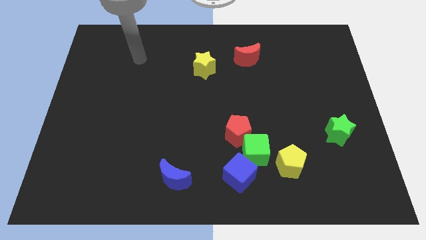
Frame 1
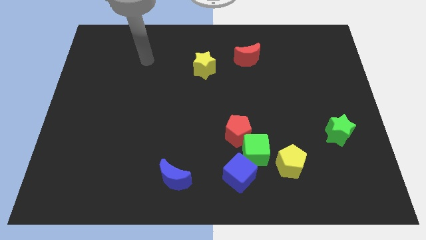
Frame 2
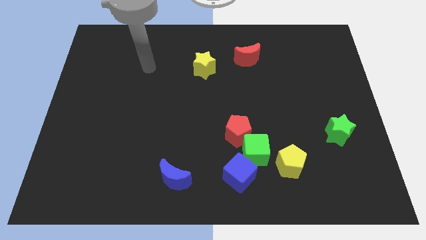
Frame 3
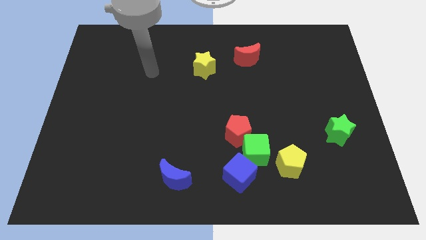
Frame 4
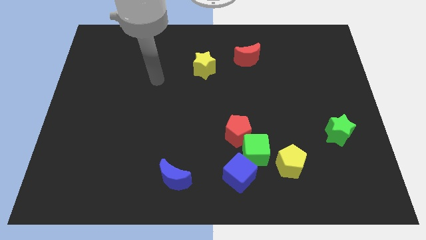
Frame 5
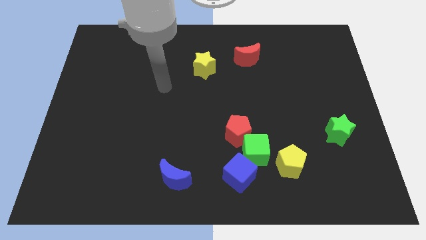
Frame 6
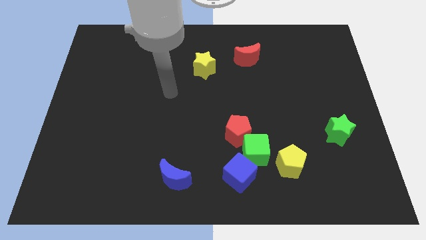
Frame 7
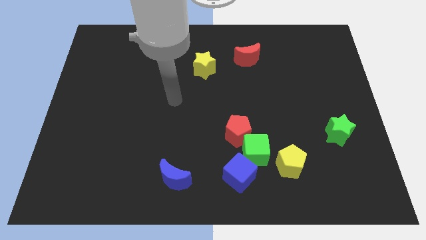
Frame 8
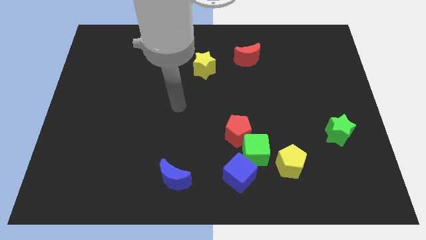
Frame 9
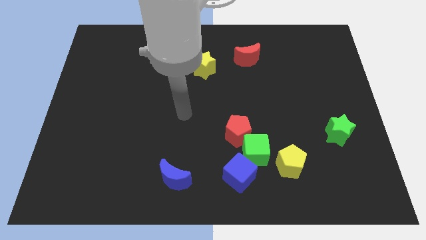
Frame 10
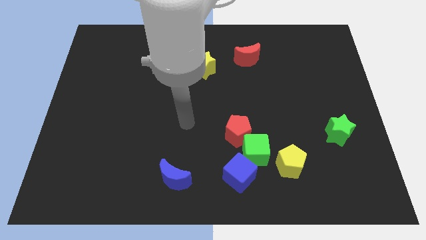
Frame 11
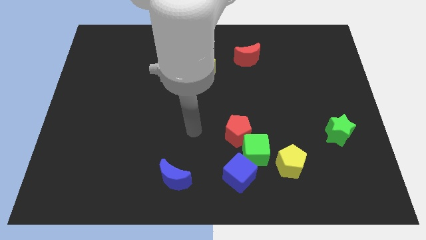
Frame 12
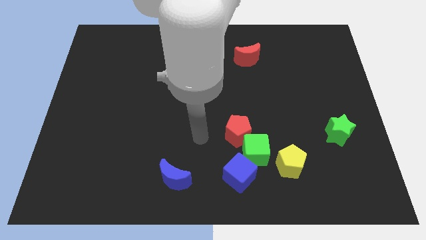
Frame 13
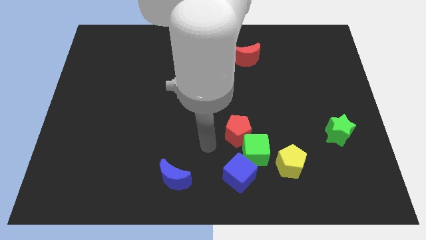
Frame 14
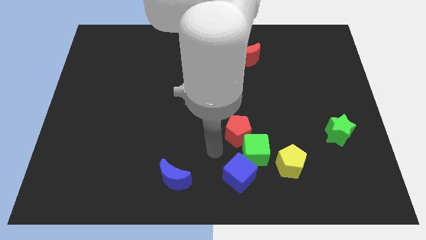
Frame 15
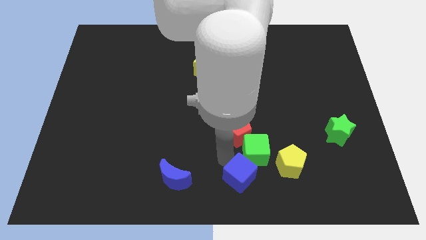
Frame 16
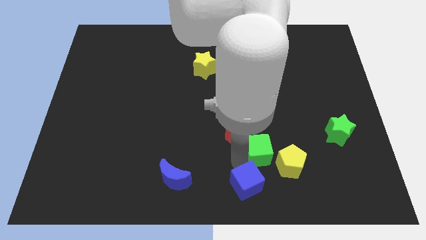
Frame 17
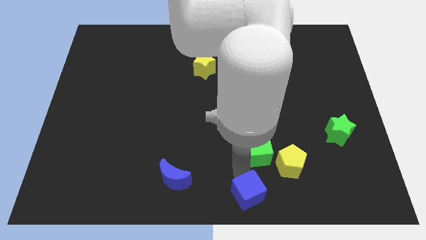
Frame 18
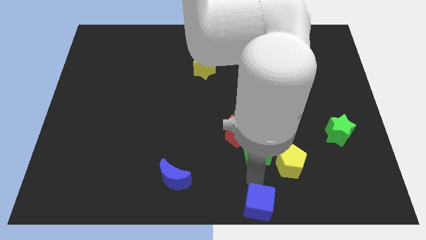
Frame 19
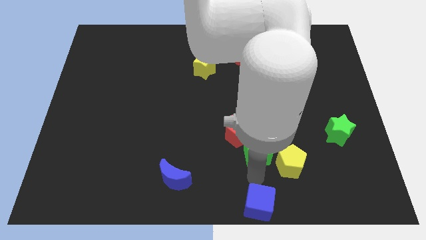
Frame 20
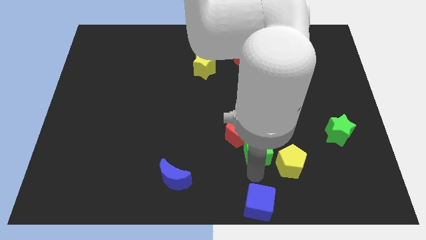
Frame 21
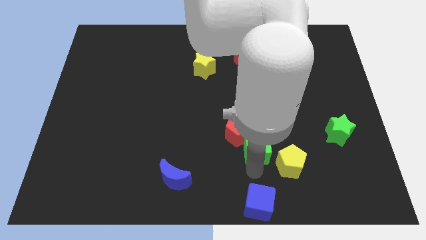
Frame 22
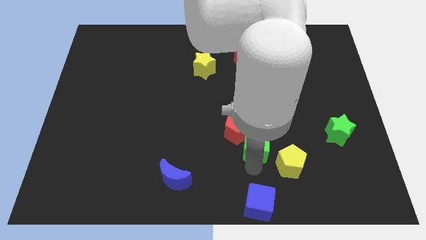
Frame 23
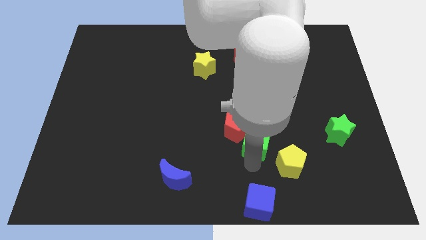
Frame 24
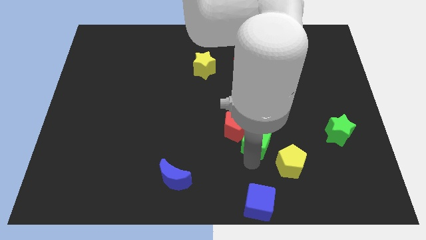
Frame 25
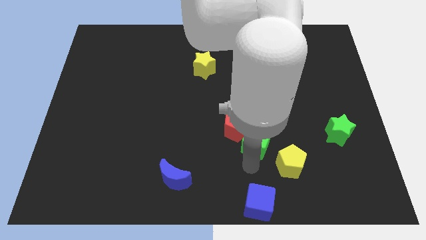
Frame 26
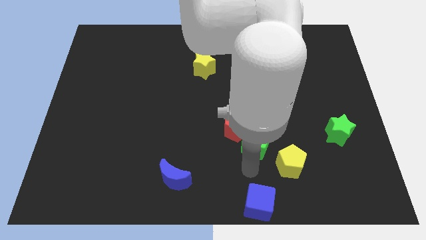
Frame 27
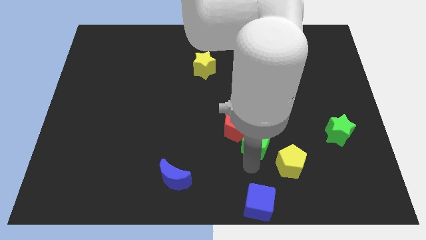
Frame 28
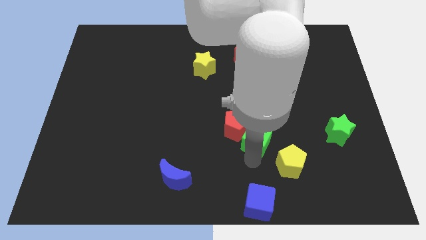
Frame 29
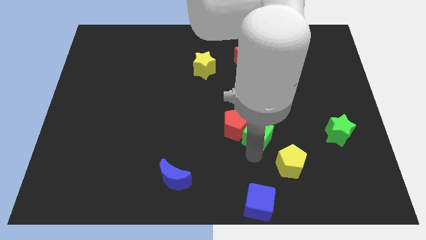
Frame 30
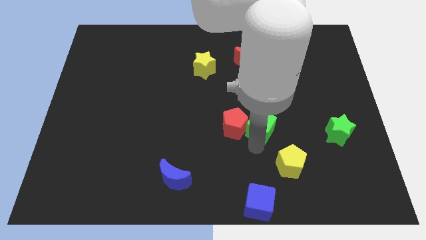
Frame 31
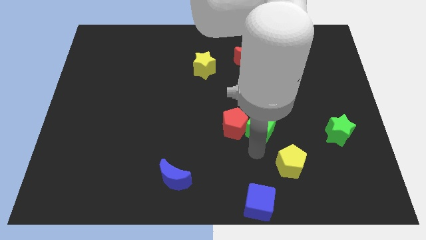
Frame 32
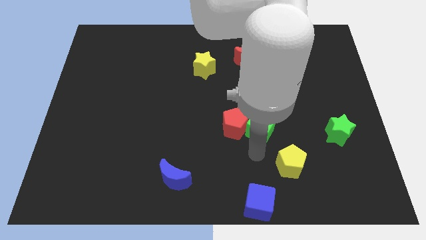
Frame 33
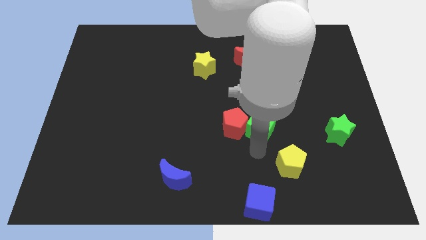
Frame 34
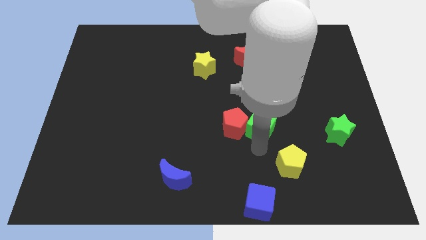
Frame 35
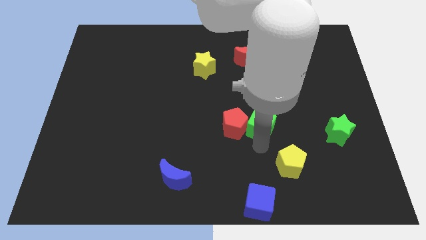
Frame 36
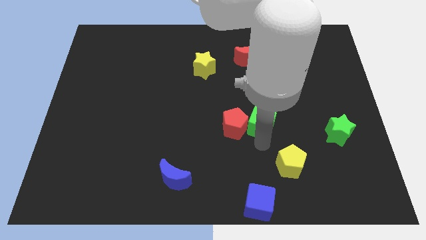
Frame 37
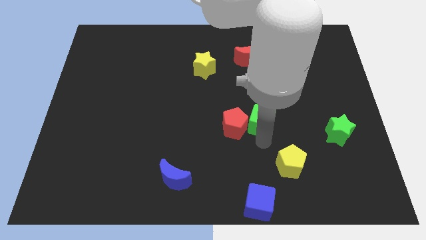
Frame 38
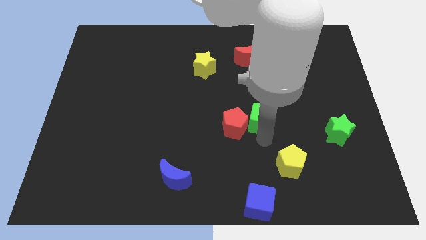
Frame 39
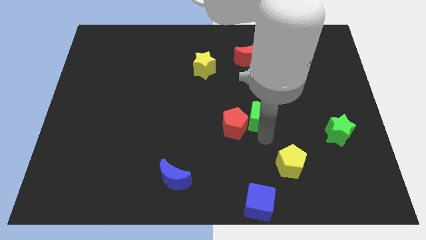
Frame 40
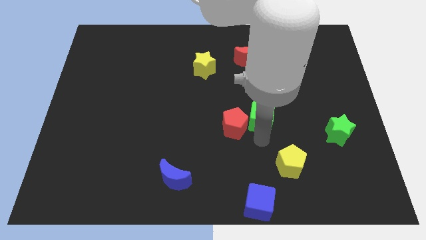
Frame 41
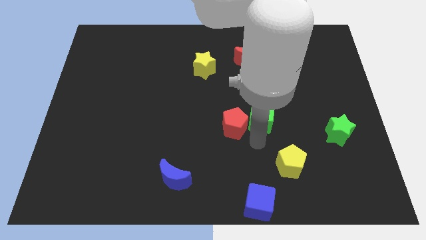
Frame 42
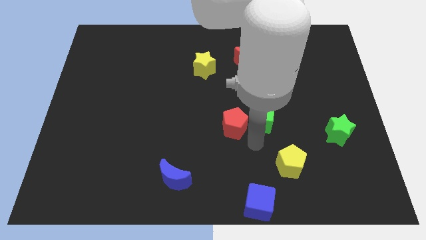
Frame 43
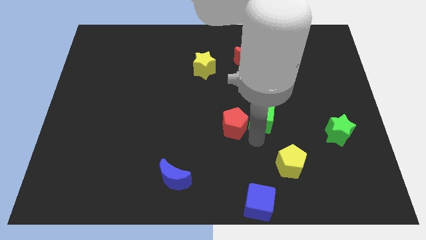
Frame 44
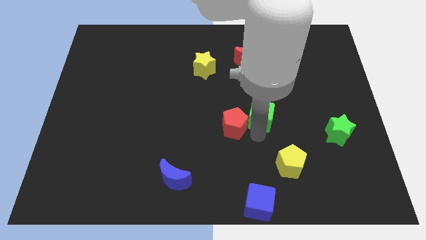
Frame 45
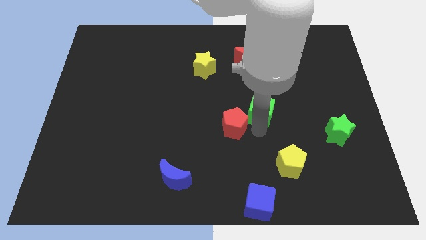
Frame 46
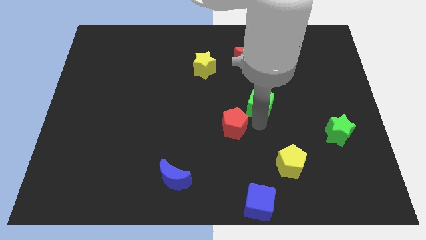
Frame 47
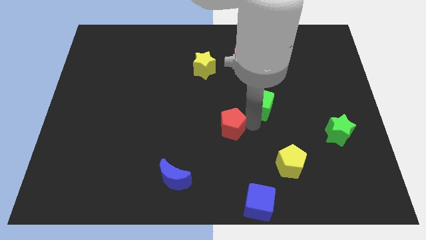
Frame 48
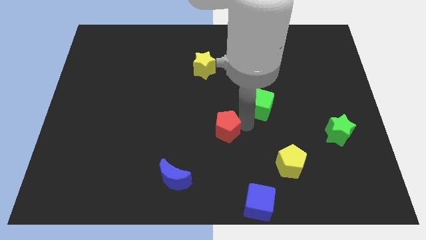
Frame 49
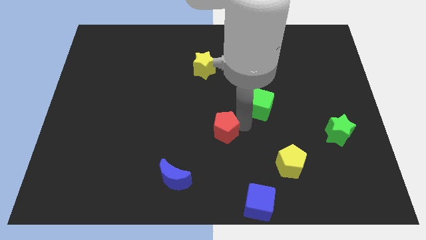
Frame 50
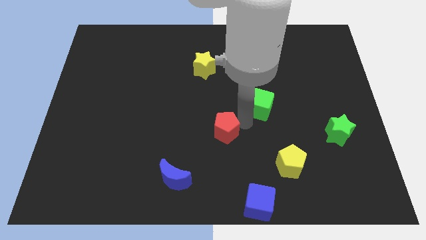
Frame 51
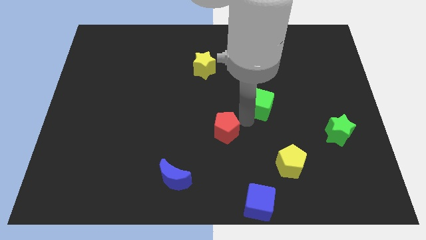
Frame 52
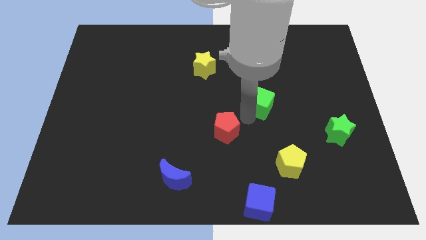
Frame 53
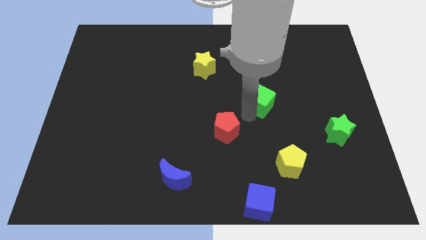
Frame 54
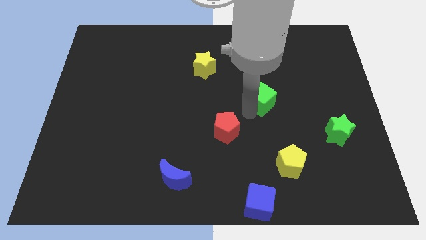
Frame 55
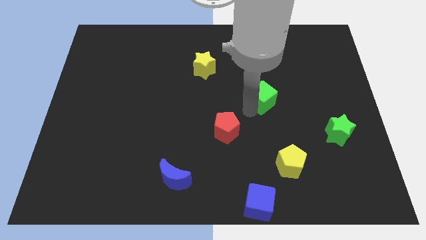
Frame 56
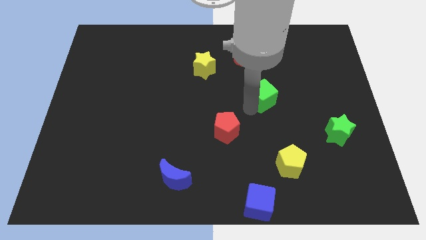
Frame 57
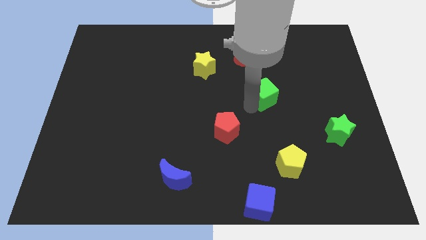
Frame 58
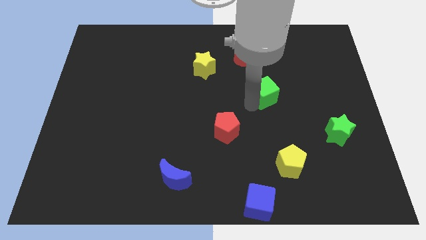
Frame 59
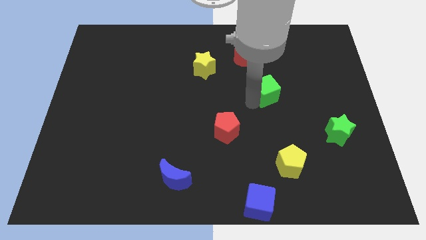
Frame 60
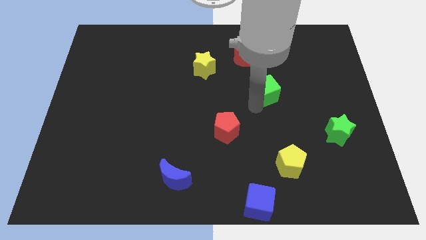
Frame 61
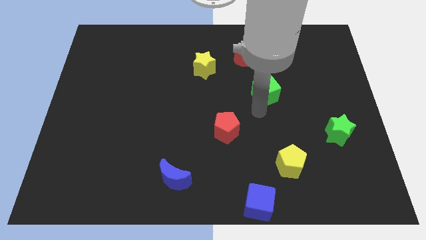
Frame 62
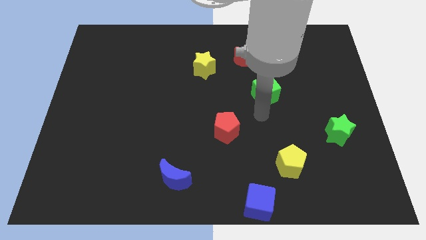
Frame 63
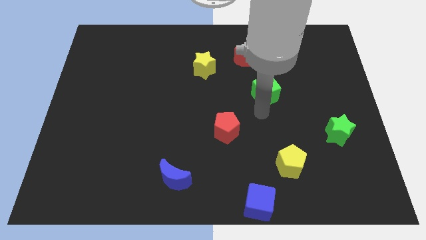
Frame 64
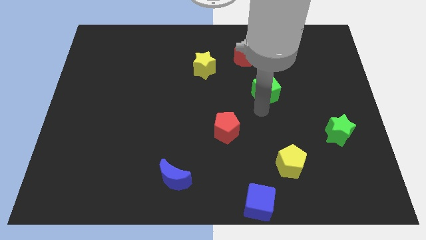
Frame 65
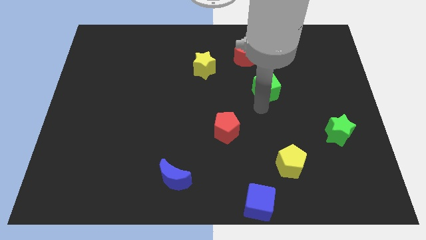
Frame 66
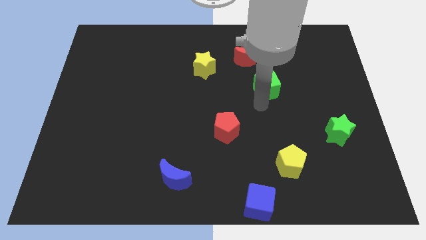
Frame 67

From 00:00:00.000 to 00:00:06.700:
put the green cube diagonally down and to the right of the red moon
